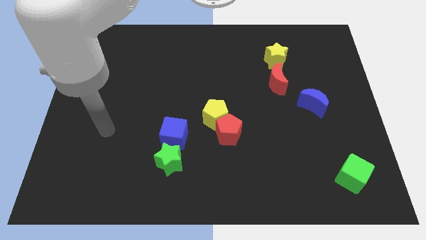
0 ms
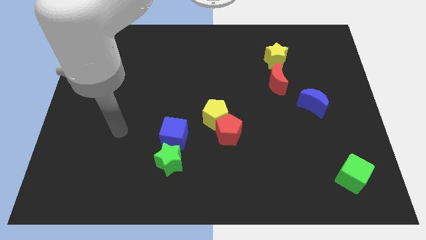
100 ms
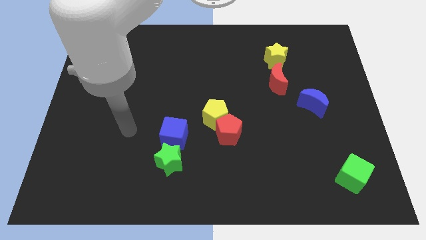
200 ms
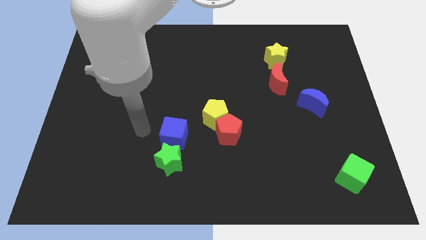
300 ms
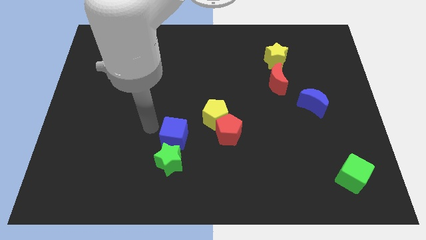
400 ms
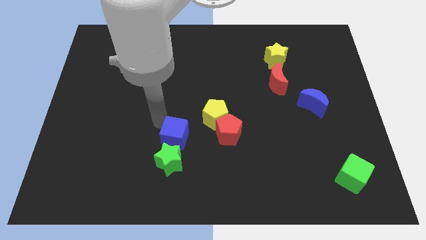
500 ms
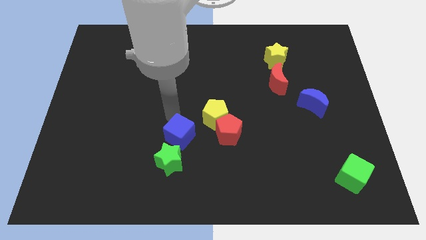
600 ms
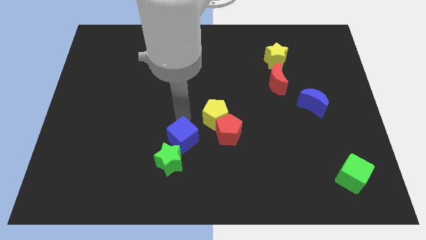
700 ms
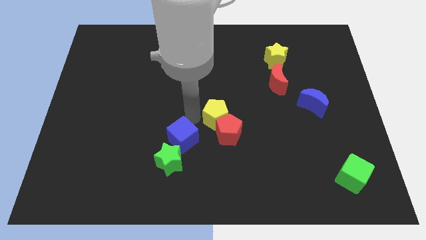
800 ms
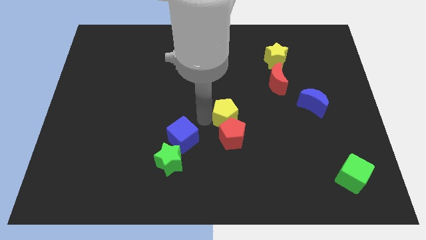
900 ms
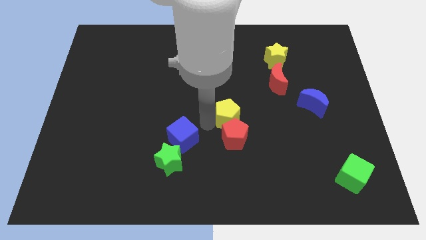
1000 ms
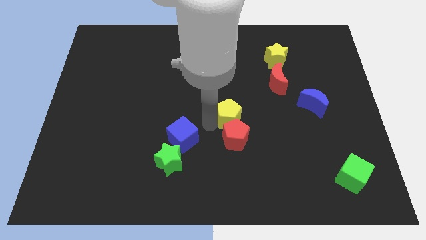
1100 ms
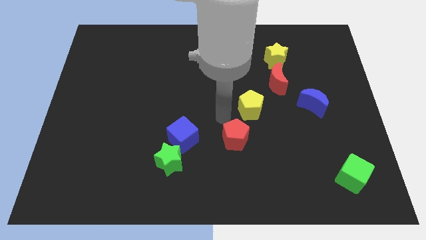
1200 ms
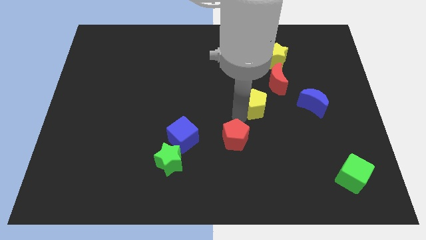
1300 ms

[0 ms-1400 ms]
pull the red pentagon apart from the yellow pentagon

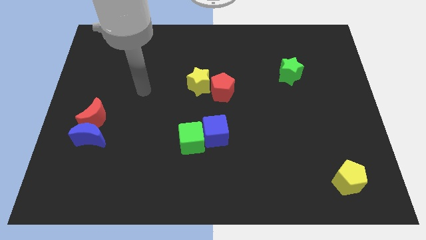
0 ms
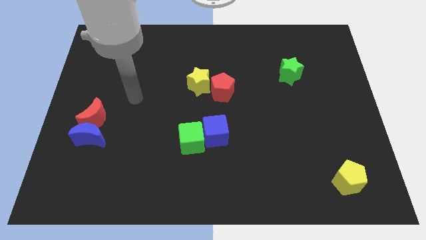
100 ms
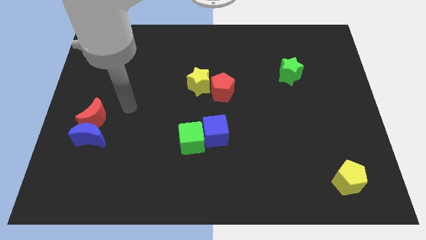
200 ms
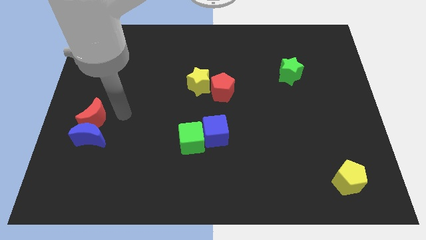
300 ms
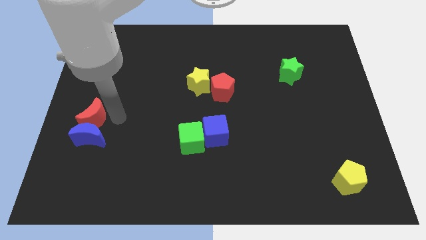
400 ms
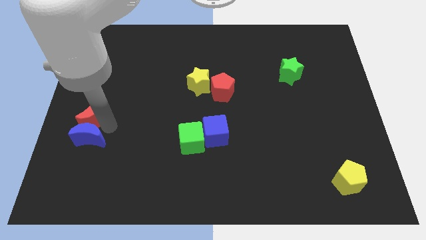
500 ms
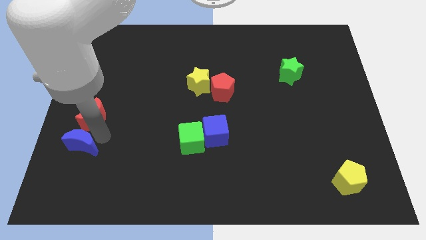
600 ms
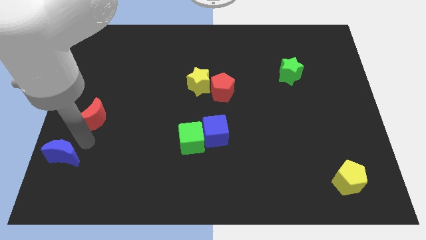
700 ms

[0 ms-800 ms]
separate the red moon from the blue moon

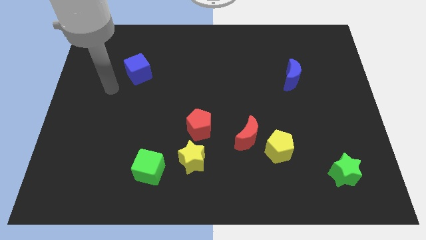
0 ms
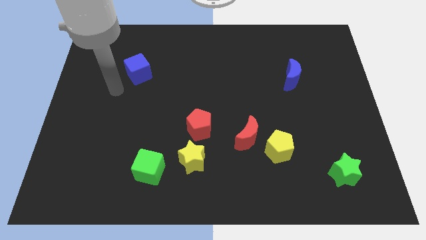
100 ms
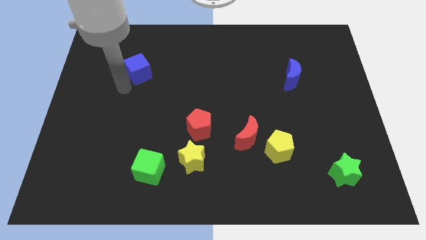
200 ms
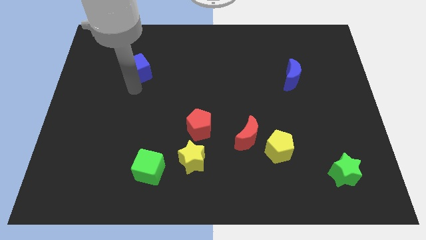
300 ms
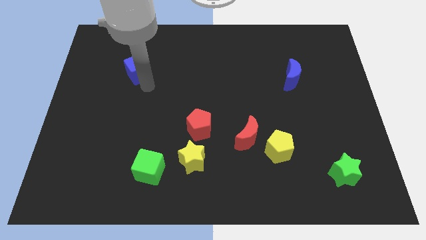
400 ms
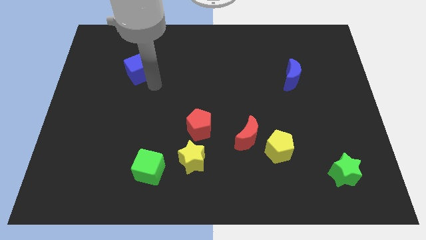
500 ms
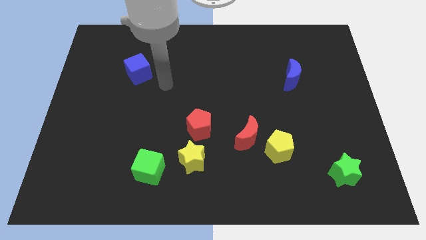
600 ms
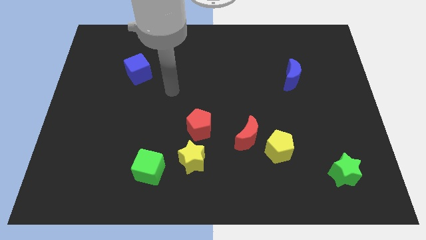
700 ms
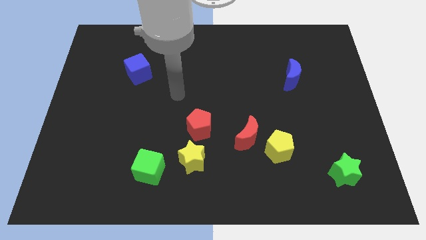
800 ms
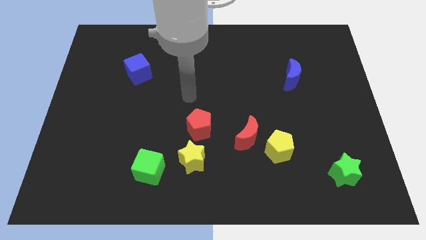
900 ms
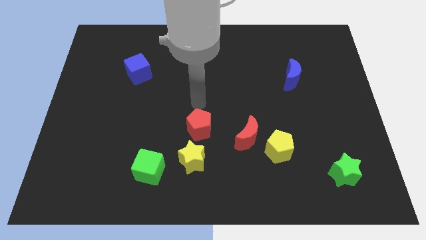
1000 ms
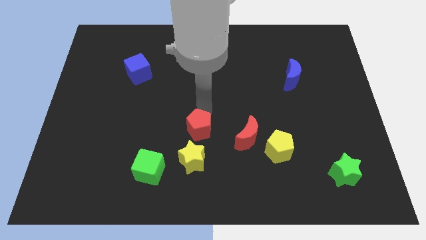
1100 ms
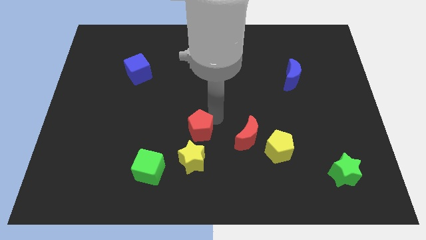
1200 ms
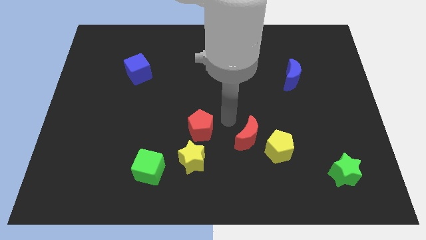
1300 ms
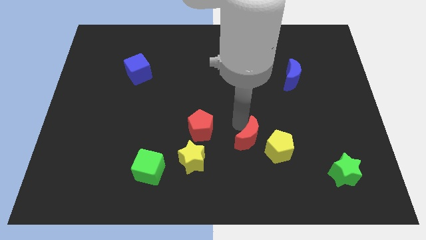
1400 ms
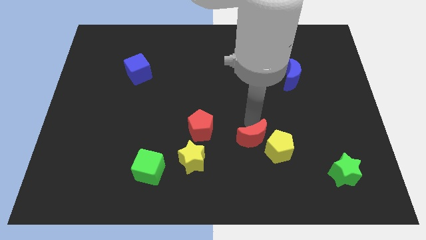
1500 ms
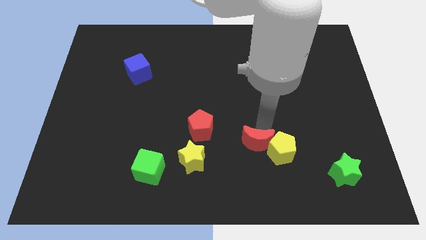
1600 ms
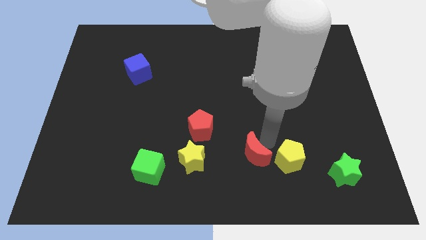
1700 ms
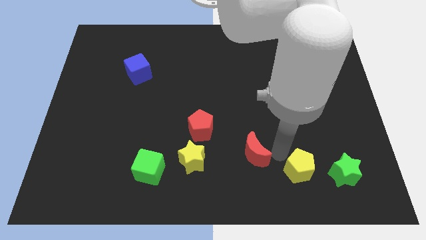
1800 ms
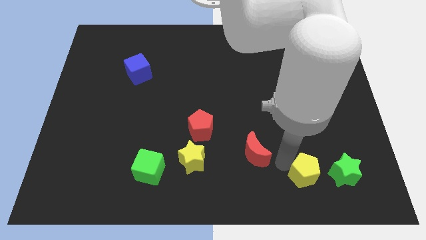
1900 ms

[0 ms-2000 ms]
pull the red moon apart from the yellow pentagon

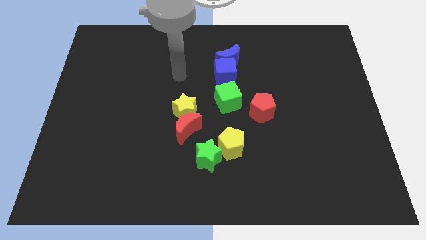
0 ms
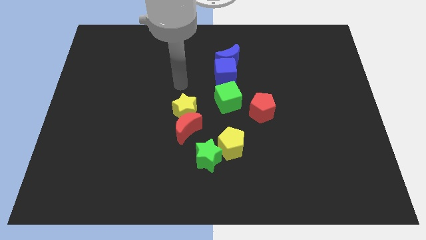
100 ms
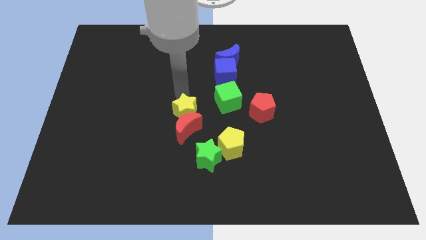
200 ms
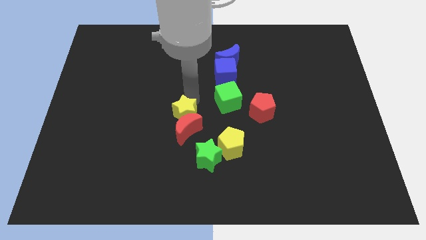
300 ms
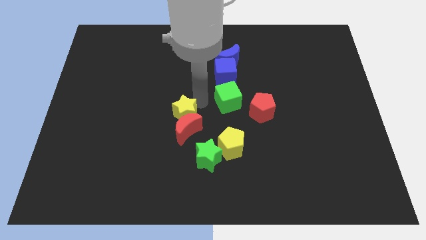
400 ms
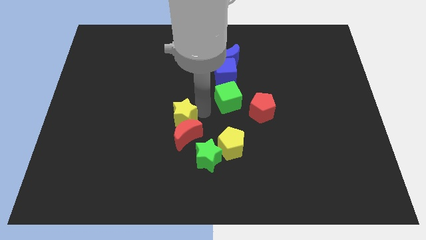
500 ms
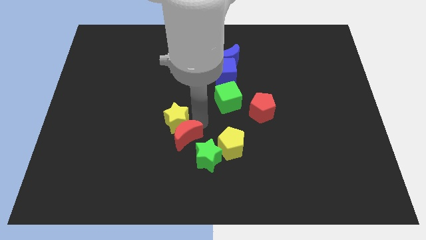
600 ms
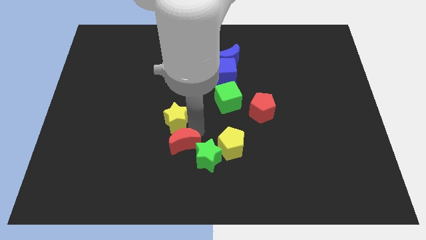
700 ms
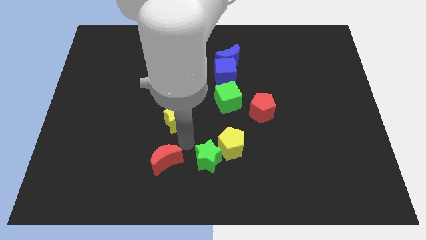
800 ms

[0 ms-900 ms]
move the yellow star away from the red moon

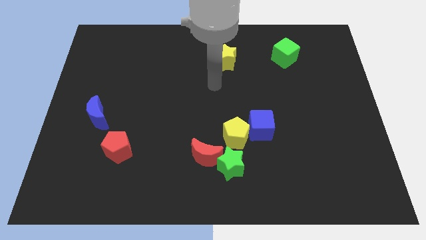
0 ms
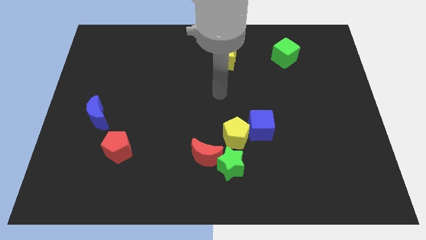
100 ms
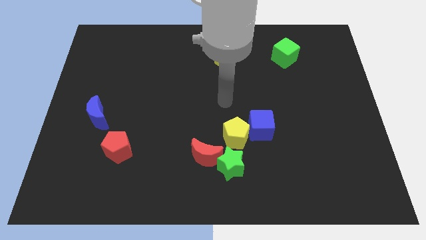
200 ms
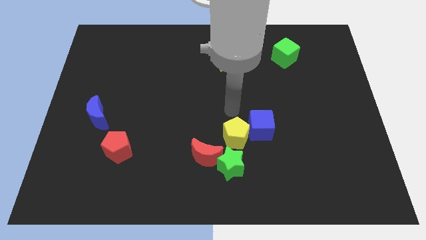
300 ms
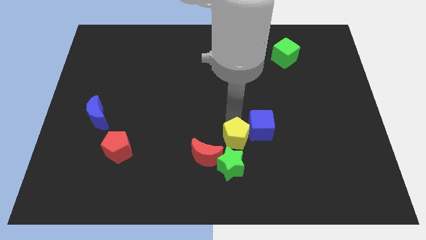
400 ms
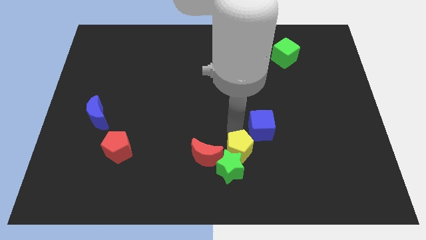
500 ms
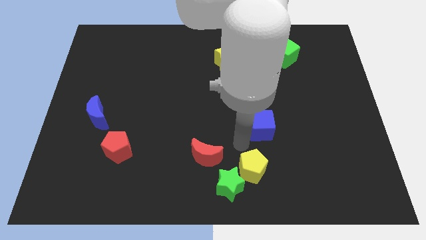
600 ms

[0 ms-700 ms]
separate the blue cube from the yellow pentagon

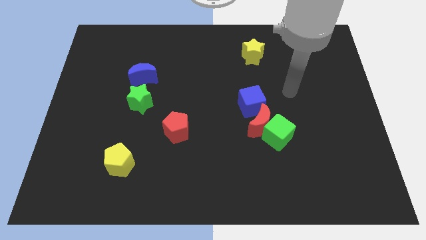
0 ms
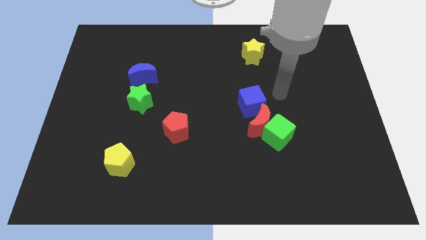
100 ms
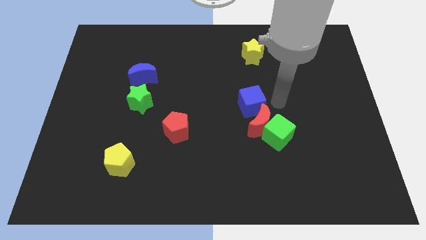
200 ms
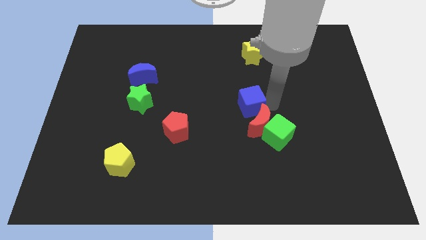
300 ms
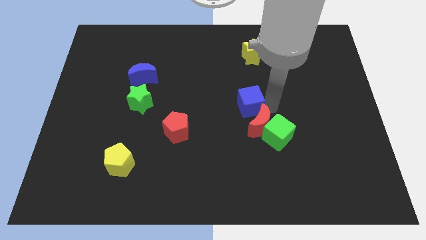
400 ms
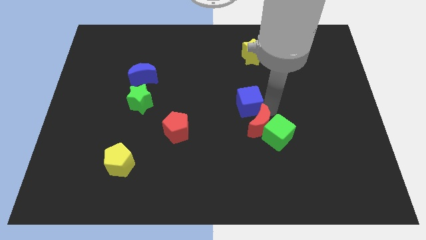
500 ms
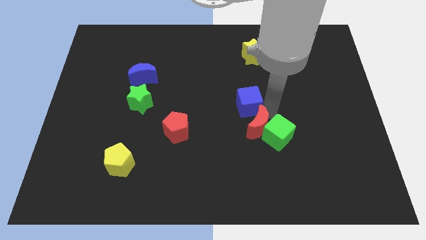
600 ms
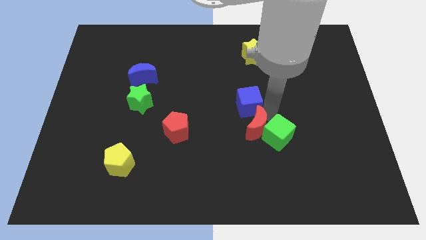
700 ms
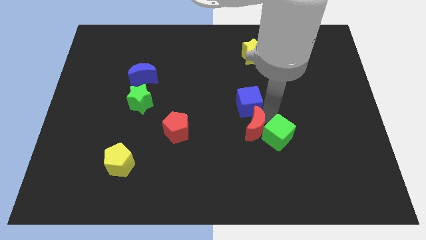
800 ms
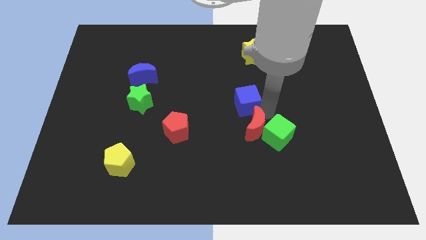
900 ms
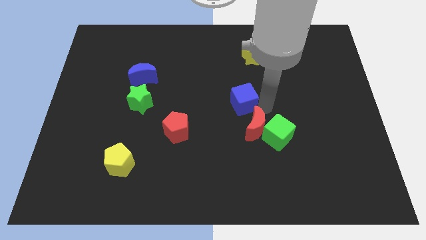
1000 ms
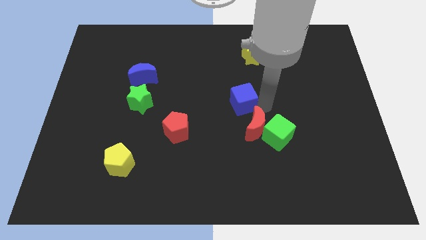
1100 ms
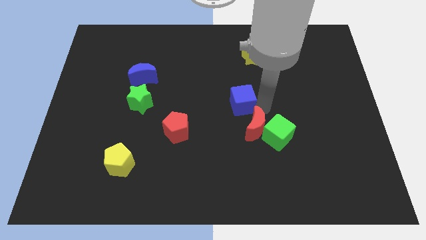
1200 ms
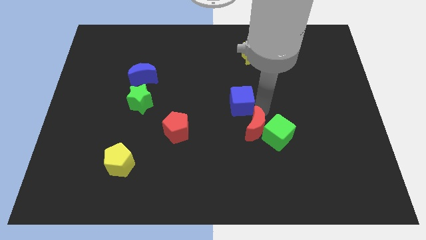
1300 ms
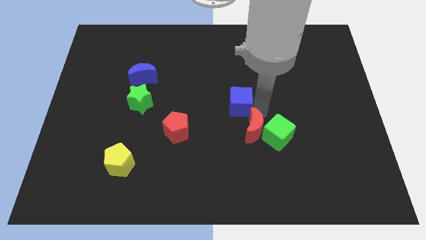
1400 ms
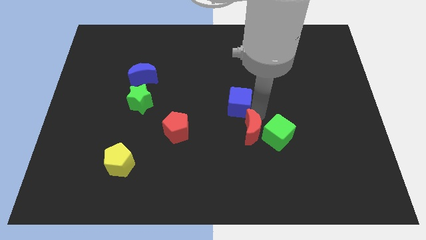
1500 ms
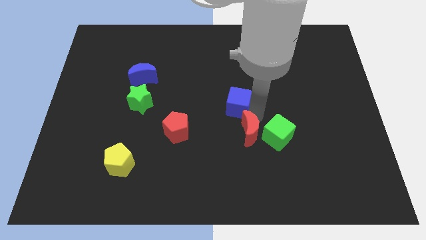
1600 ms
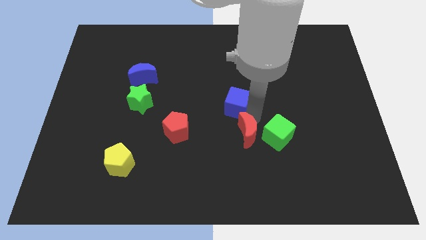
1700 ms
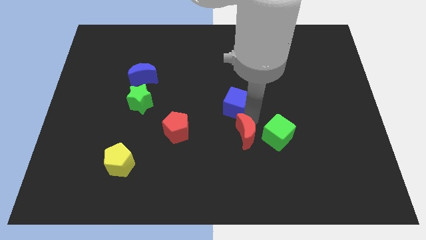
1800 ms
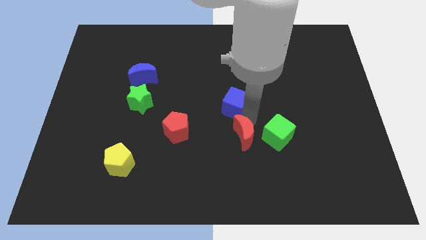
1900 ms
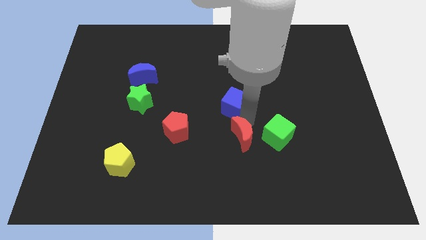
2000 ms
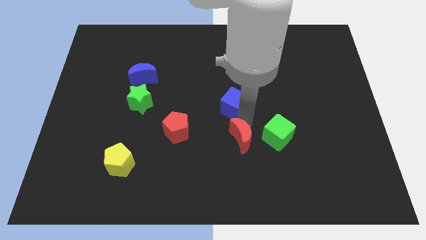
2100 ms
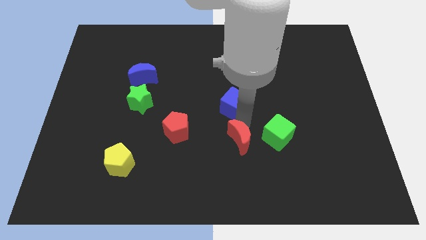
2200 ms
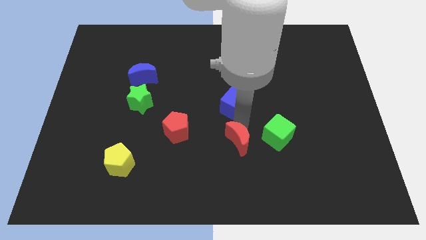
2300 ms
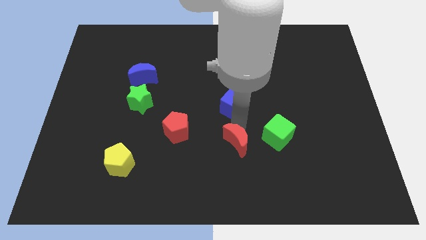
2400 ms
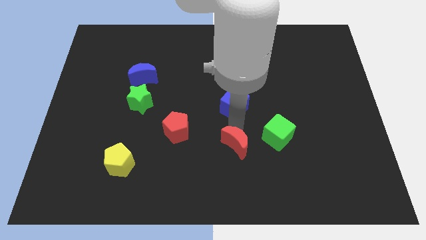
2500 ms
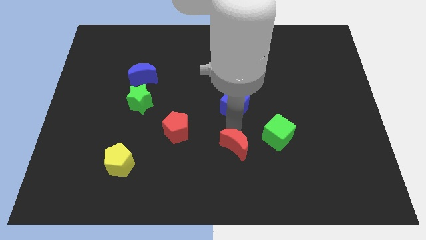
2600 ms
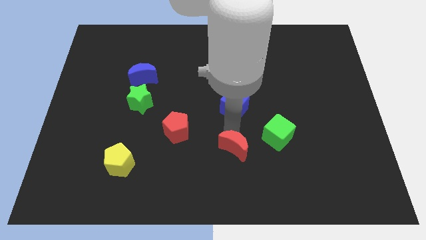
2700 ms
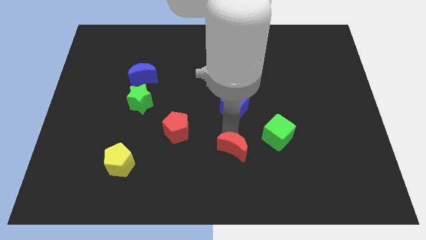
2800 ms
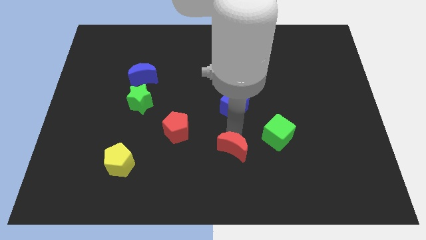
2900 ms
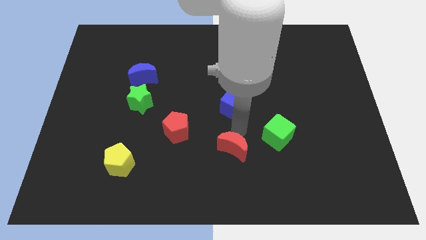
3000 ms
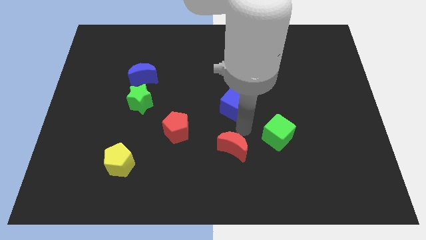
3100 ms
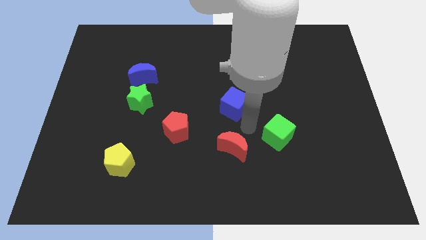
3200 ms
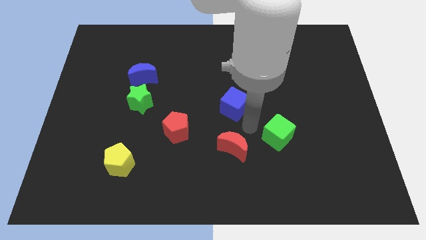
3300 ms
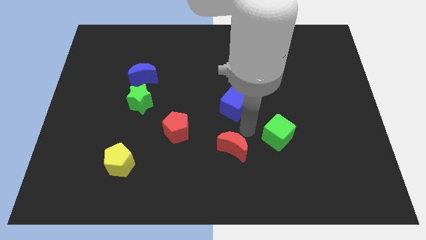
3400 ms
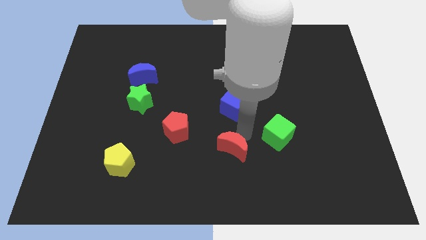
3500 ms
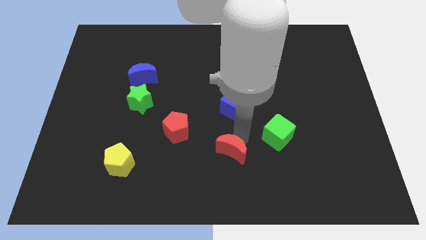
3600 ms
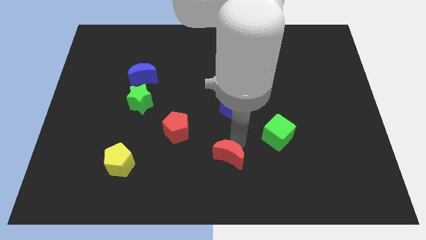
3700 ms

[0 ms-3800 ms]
pull the red moon apart from the green cube and blue cube
